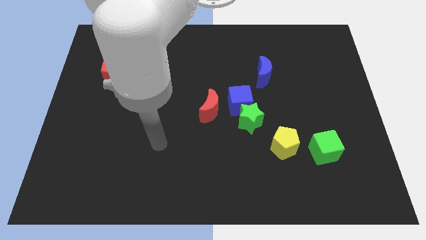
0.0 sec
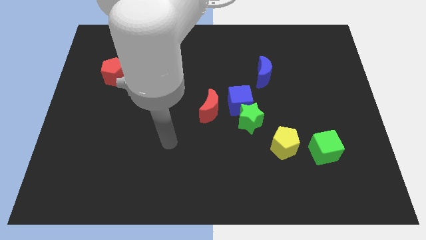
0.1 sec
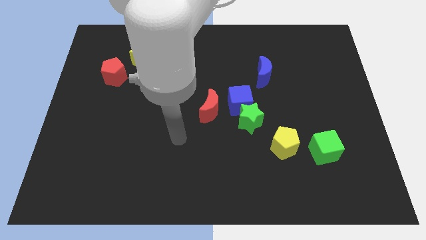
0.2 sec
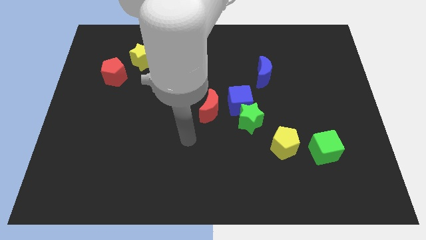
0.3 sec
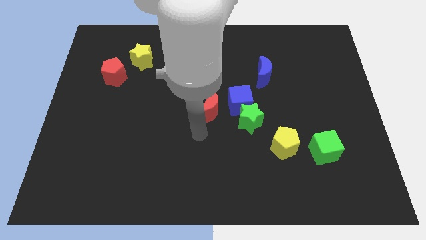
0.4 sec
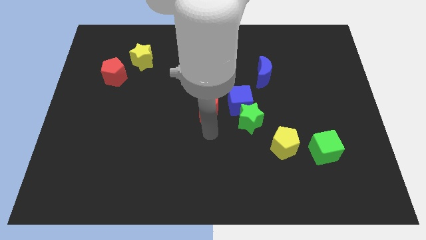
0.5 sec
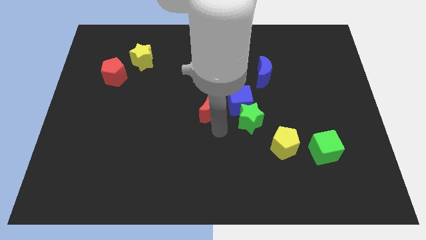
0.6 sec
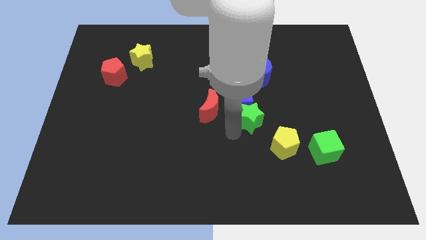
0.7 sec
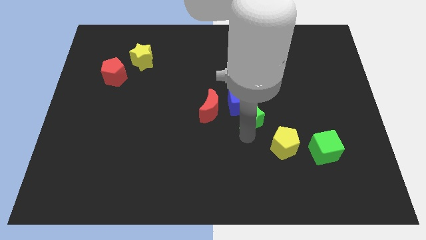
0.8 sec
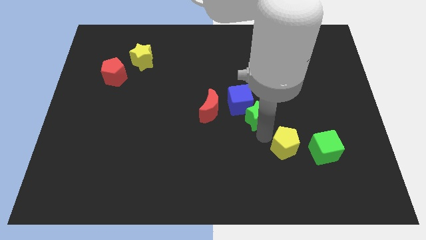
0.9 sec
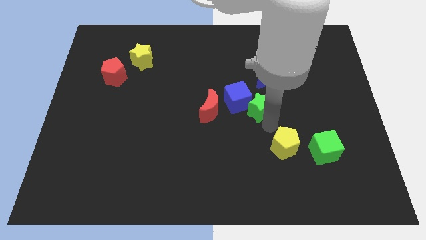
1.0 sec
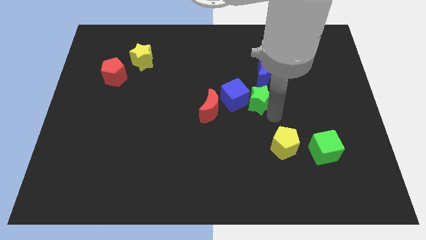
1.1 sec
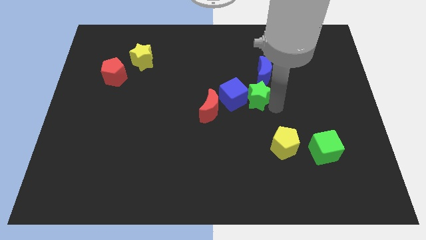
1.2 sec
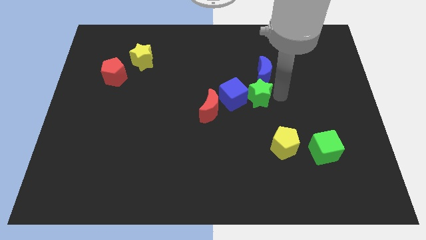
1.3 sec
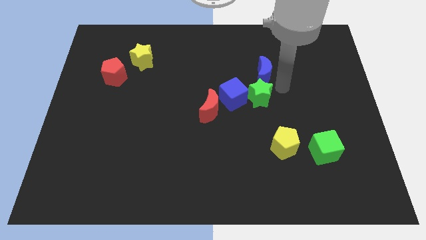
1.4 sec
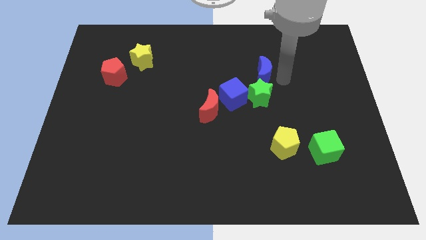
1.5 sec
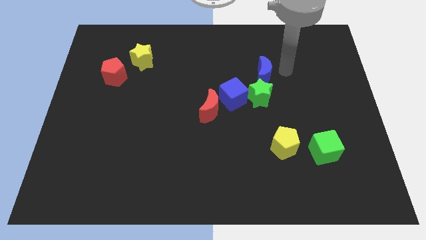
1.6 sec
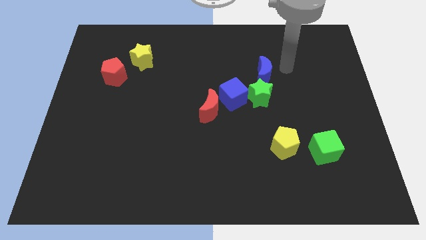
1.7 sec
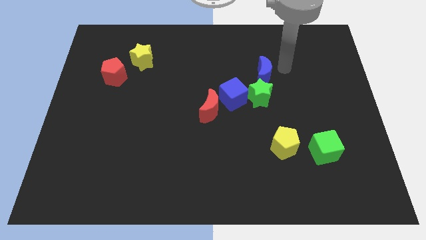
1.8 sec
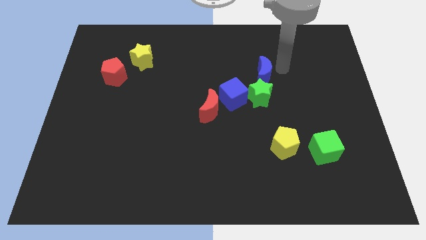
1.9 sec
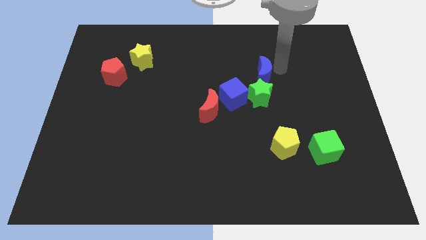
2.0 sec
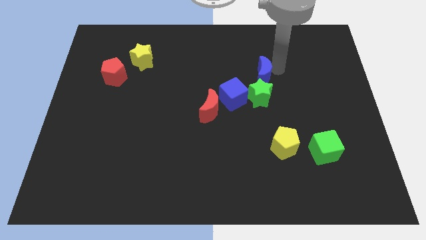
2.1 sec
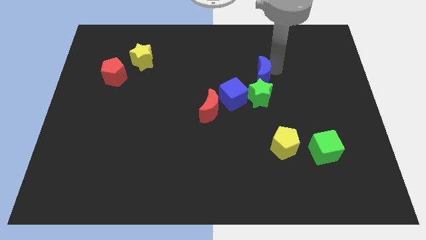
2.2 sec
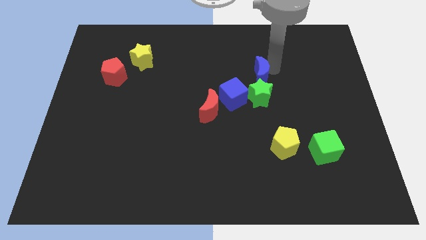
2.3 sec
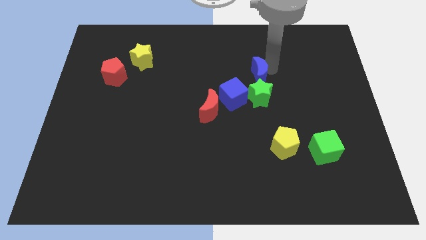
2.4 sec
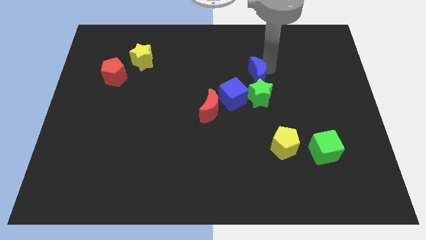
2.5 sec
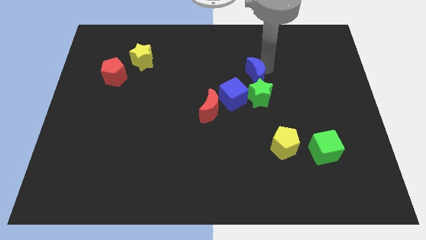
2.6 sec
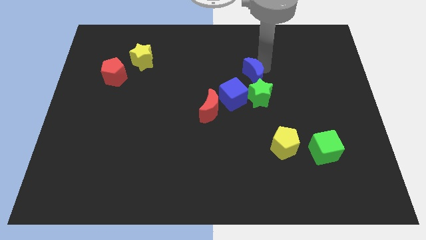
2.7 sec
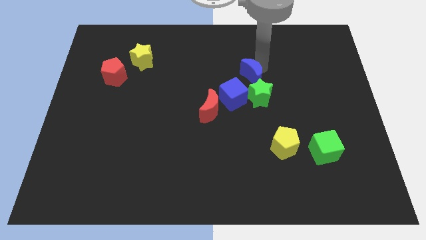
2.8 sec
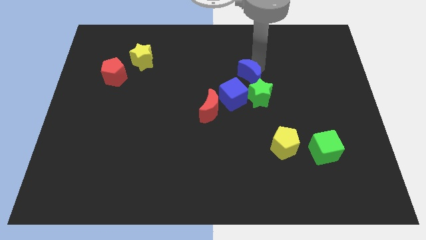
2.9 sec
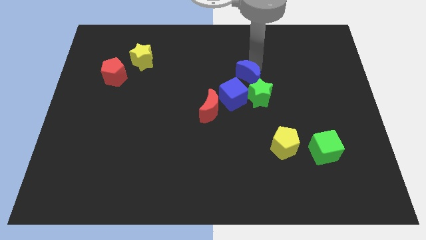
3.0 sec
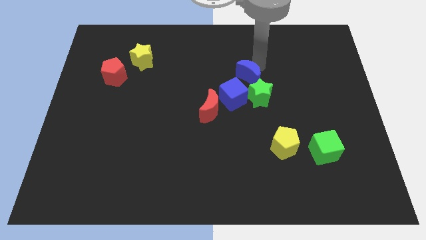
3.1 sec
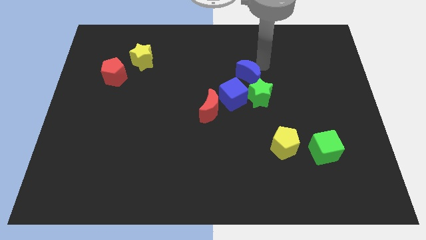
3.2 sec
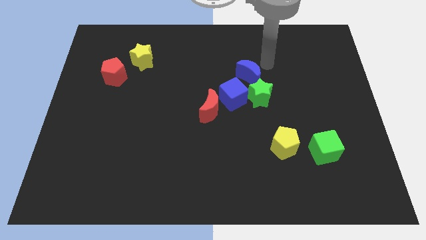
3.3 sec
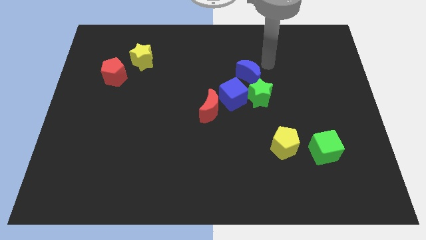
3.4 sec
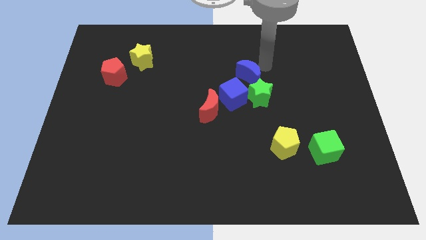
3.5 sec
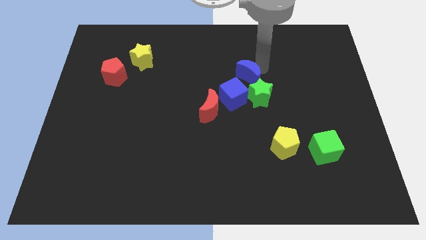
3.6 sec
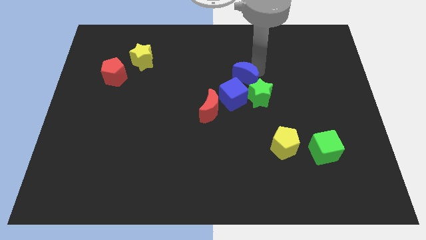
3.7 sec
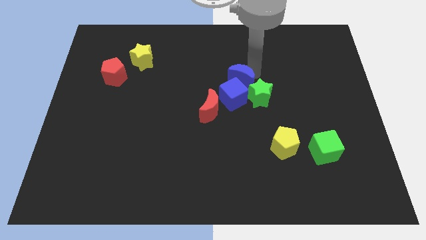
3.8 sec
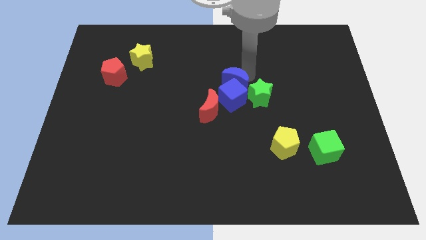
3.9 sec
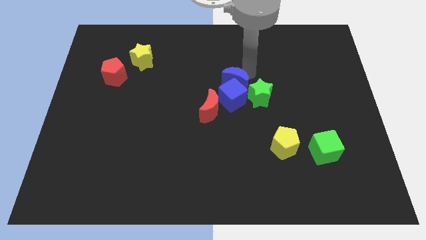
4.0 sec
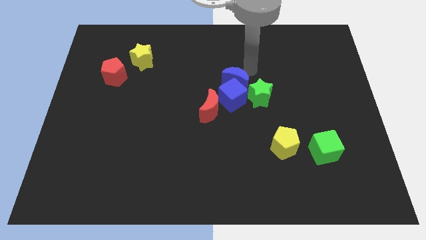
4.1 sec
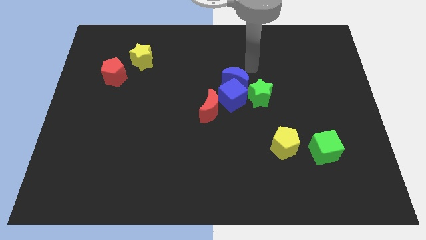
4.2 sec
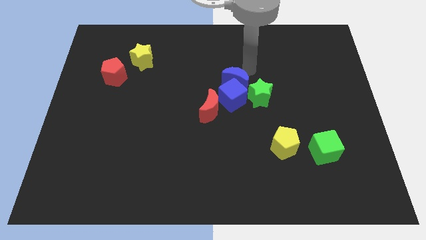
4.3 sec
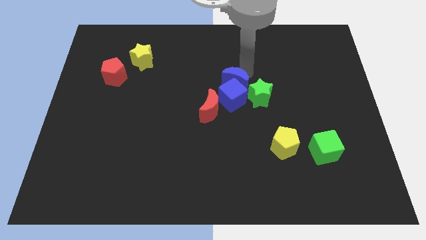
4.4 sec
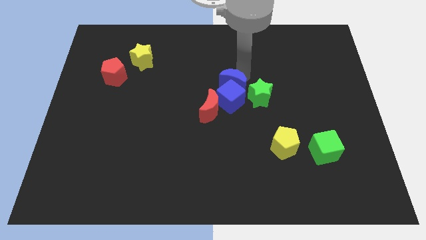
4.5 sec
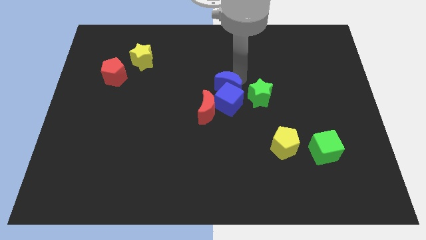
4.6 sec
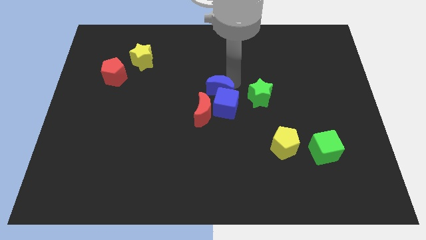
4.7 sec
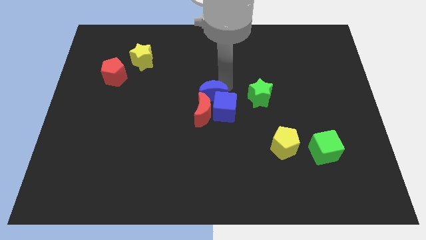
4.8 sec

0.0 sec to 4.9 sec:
move the blue moon close to the red moon

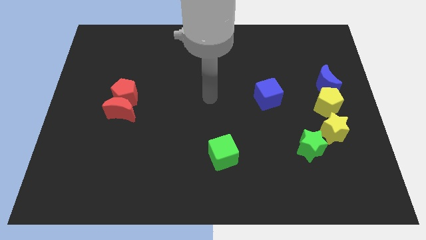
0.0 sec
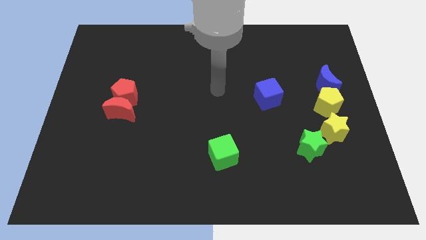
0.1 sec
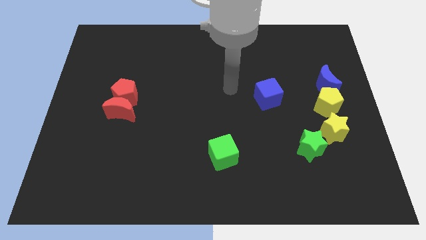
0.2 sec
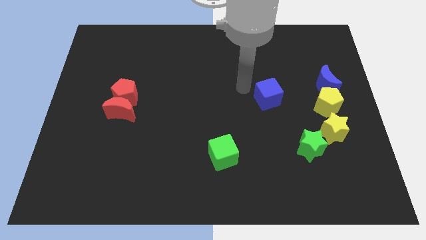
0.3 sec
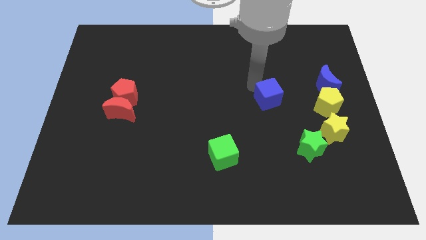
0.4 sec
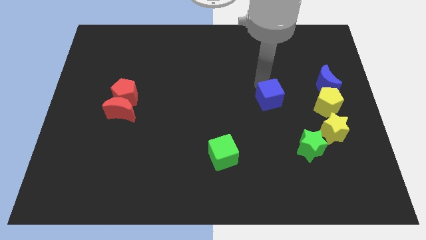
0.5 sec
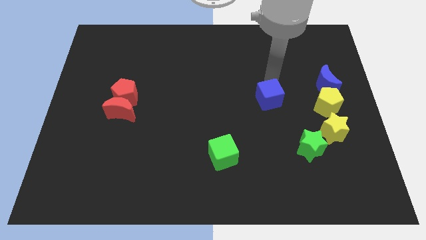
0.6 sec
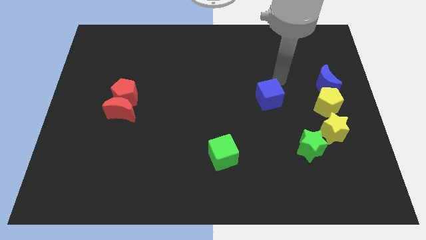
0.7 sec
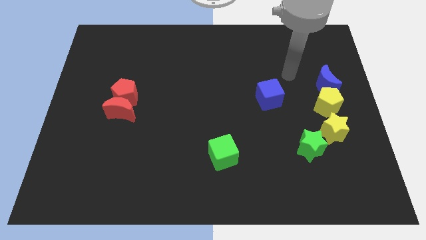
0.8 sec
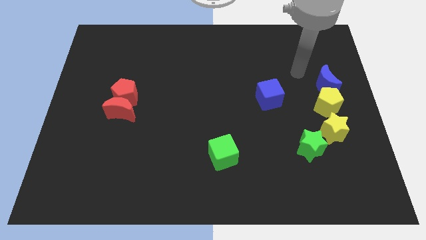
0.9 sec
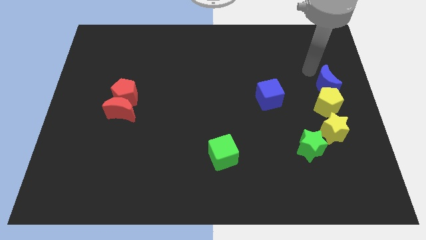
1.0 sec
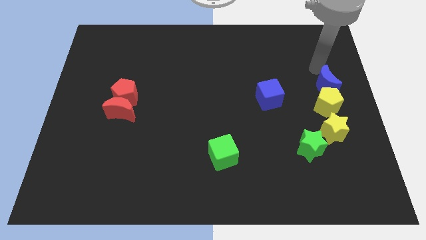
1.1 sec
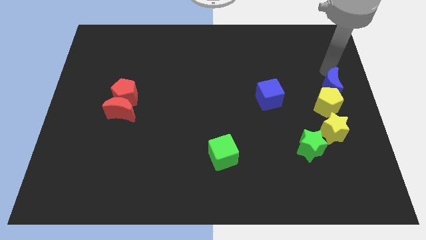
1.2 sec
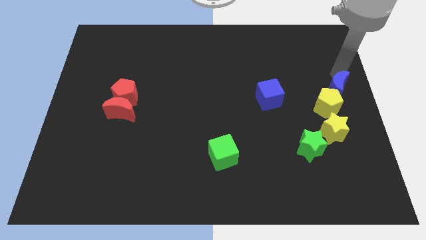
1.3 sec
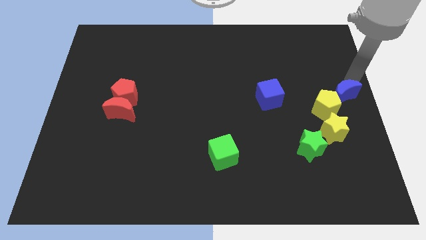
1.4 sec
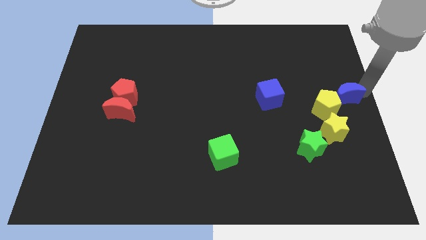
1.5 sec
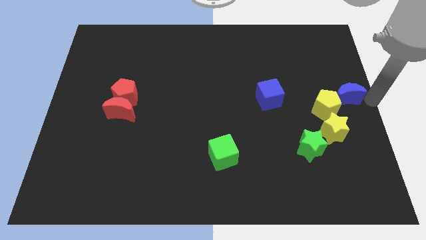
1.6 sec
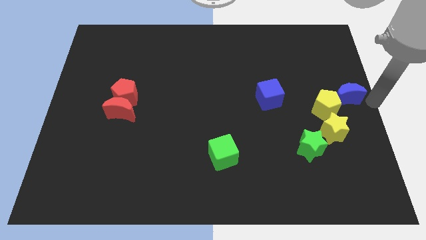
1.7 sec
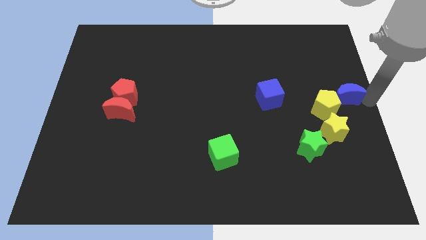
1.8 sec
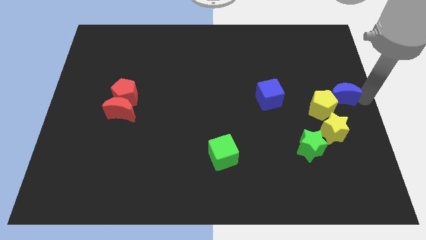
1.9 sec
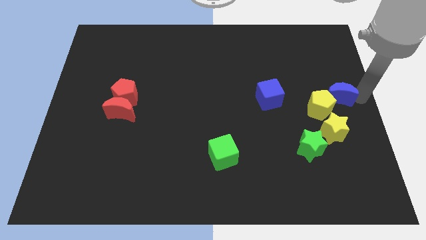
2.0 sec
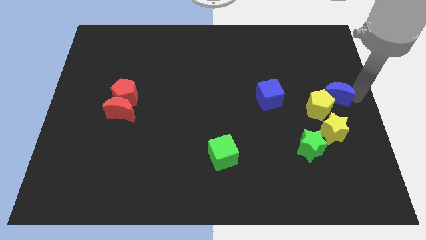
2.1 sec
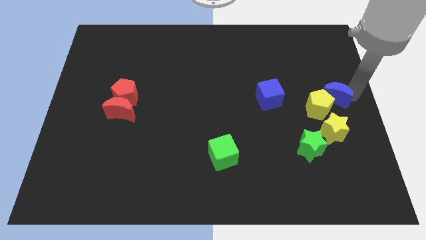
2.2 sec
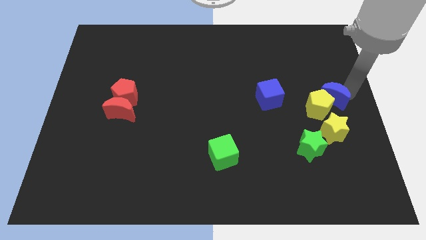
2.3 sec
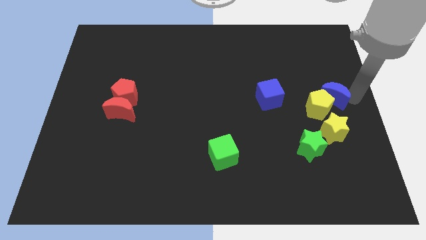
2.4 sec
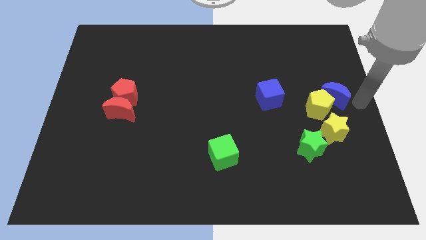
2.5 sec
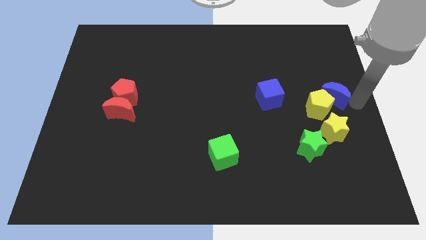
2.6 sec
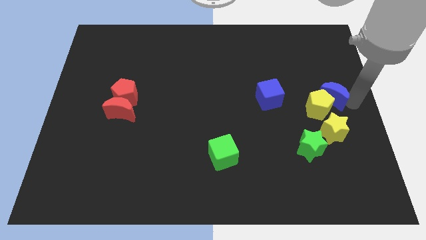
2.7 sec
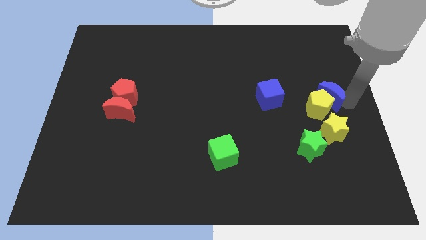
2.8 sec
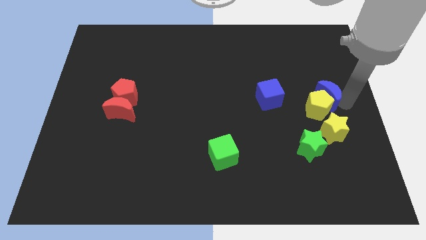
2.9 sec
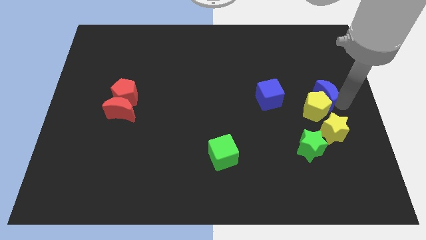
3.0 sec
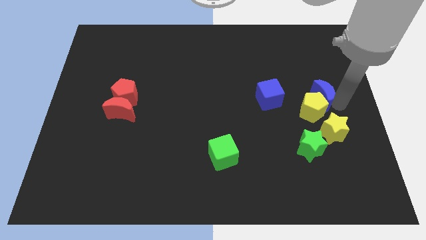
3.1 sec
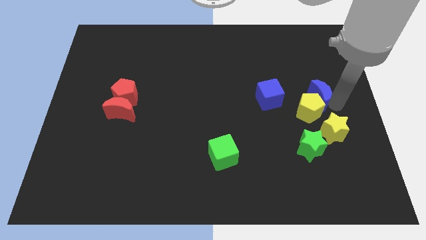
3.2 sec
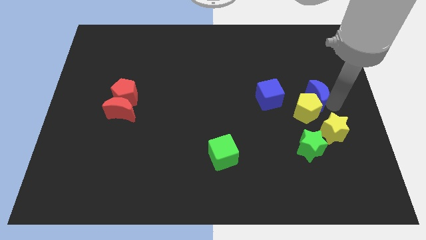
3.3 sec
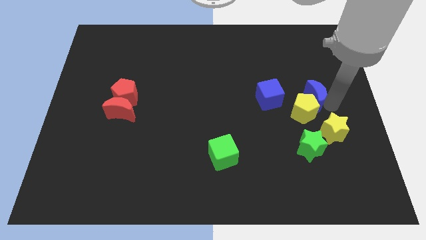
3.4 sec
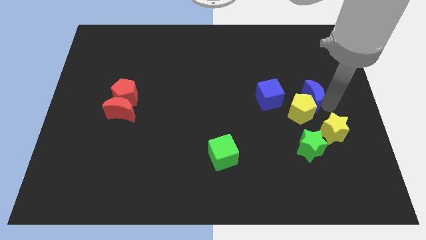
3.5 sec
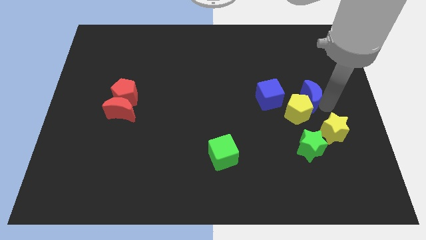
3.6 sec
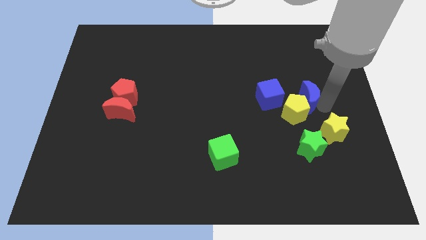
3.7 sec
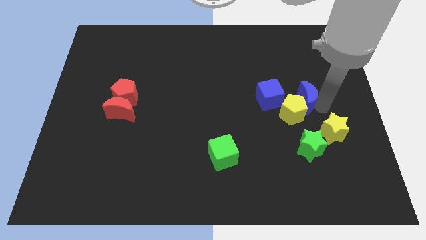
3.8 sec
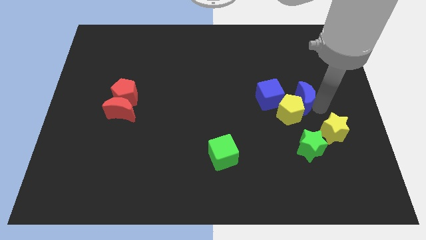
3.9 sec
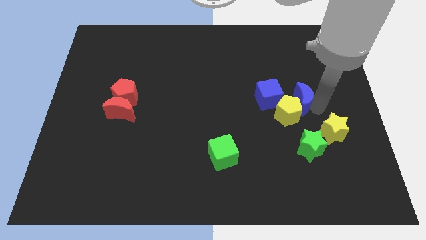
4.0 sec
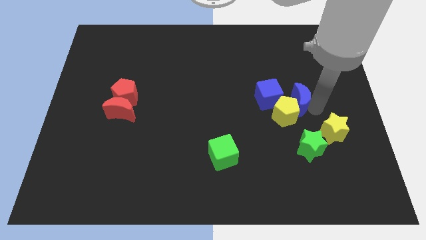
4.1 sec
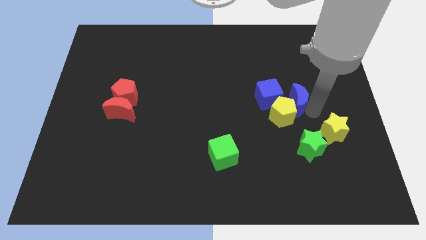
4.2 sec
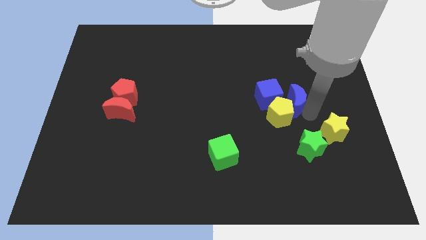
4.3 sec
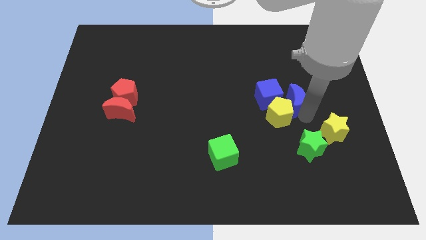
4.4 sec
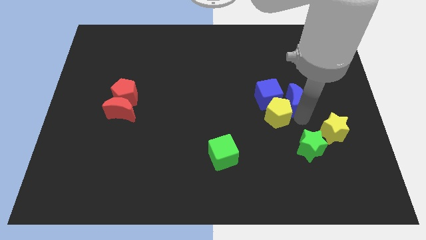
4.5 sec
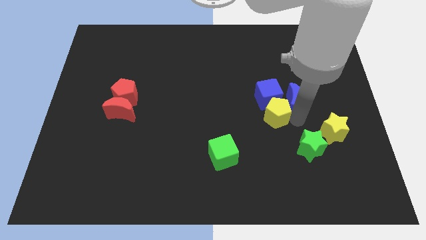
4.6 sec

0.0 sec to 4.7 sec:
slide the blue moon towards the blue cube
